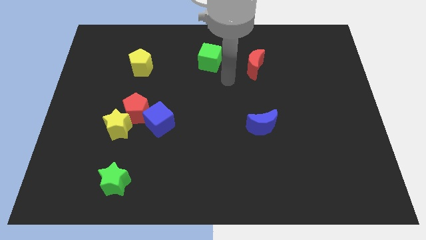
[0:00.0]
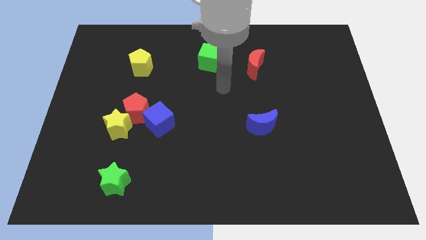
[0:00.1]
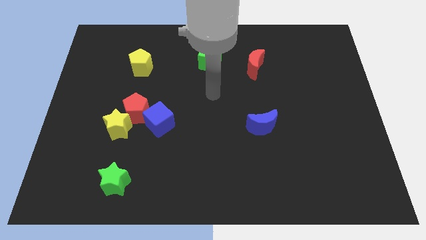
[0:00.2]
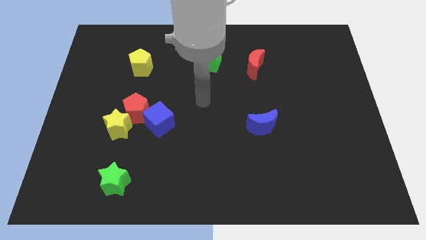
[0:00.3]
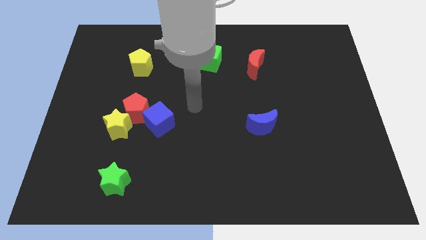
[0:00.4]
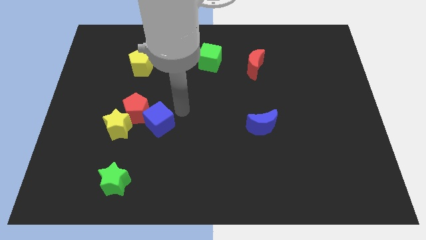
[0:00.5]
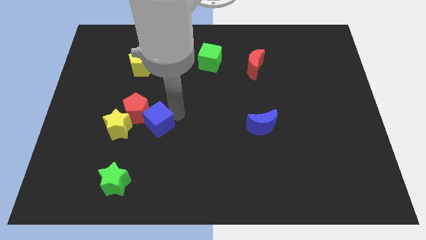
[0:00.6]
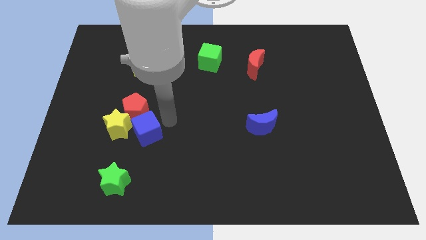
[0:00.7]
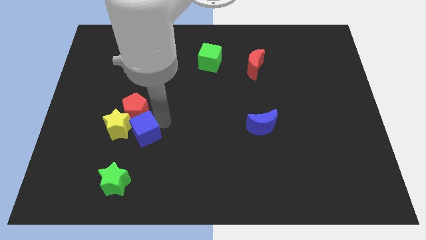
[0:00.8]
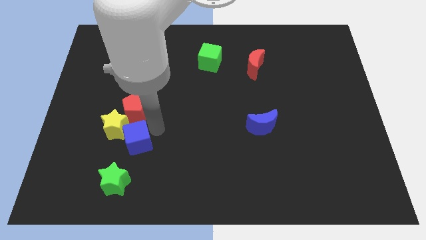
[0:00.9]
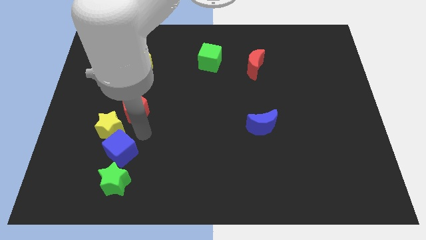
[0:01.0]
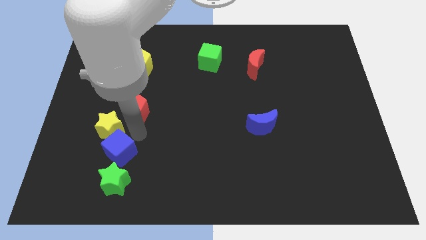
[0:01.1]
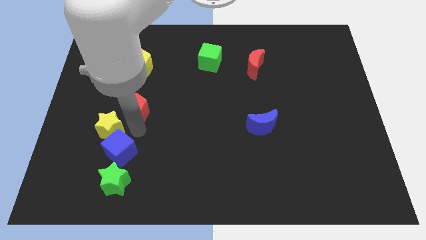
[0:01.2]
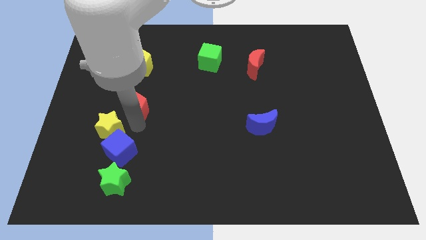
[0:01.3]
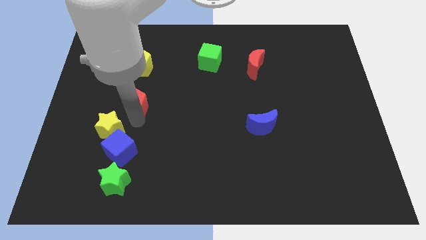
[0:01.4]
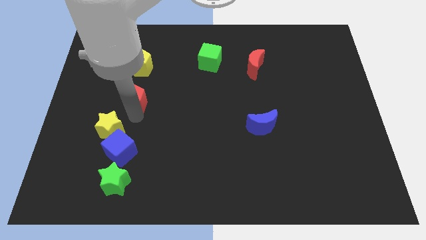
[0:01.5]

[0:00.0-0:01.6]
move the red pentagon away from the yellow star and blue cube

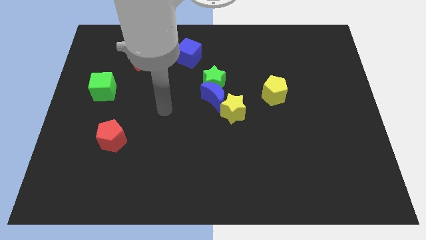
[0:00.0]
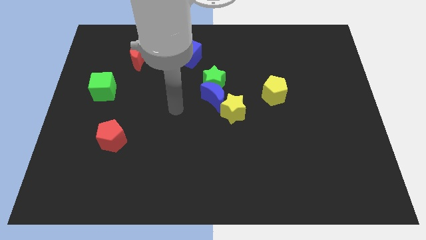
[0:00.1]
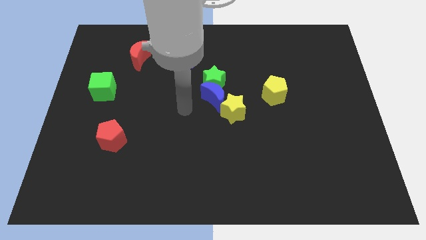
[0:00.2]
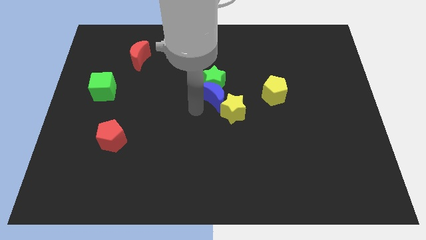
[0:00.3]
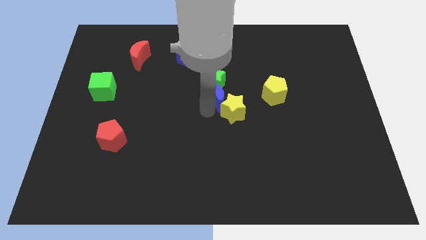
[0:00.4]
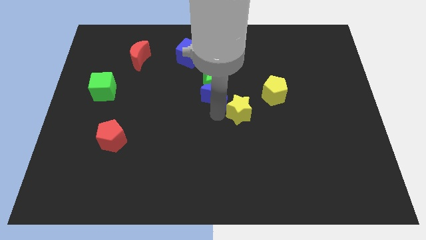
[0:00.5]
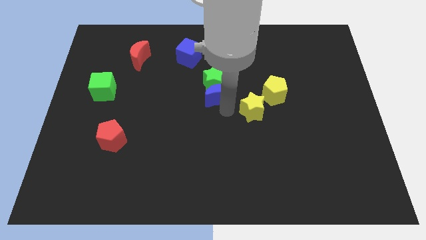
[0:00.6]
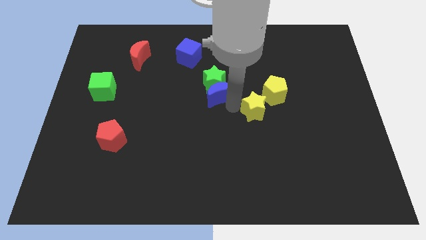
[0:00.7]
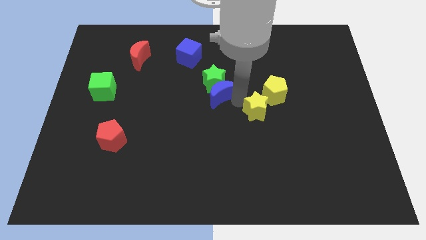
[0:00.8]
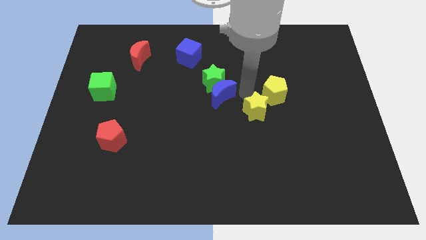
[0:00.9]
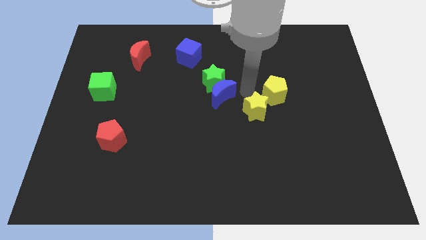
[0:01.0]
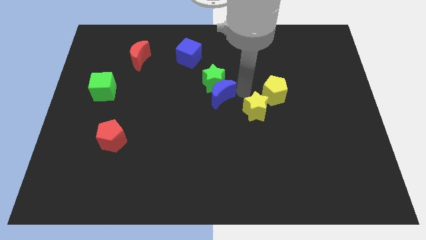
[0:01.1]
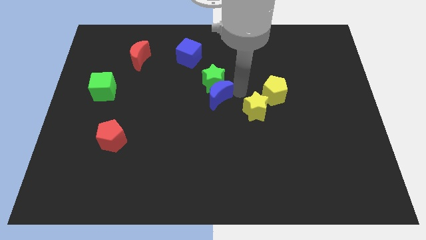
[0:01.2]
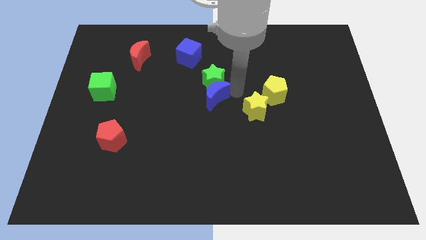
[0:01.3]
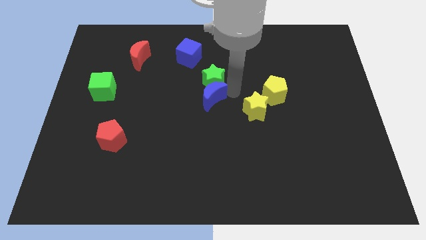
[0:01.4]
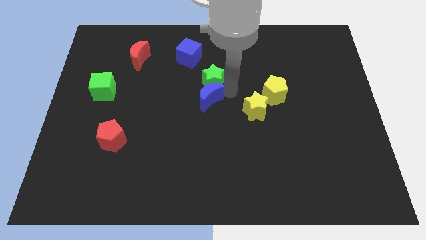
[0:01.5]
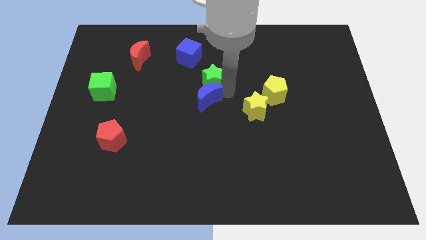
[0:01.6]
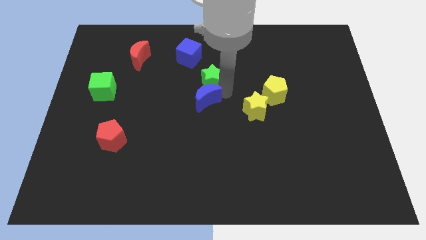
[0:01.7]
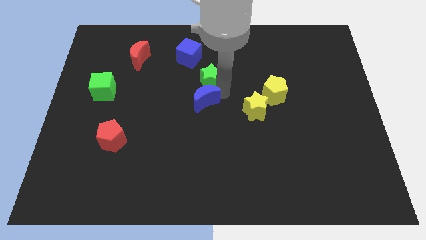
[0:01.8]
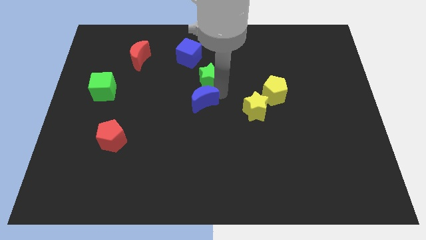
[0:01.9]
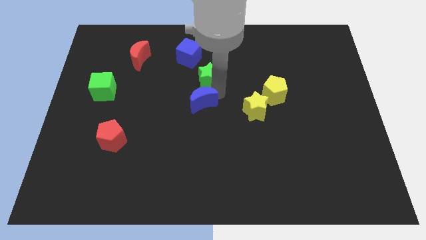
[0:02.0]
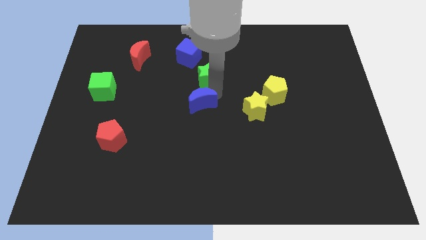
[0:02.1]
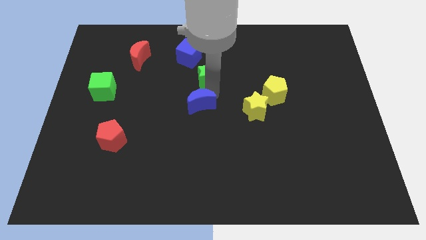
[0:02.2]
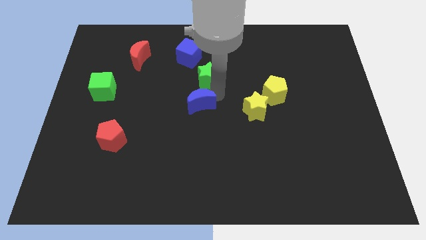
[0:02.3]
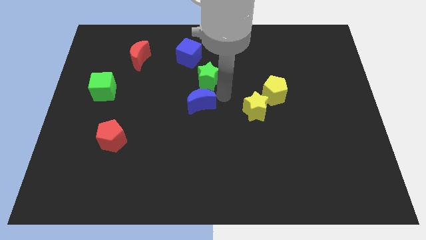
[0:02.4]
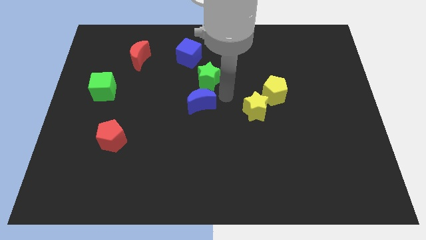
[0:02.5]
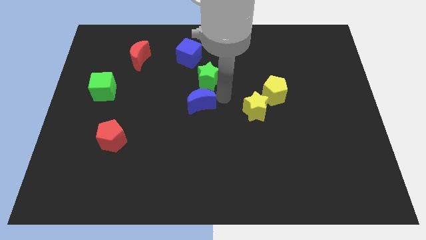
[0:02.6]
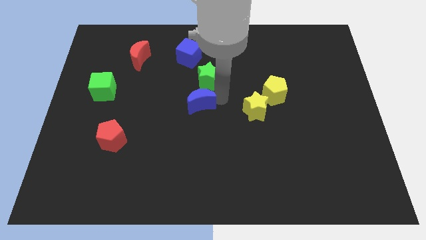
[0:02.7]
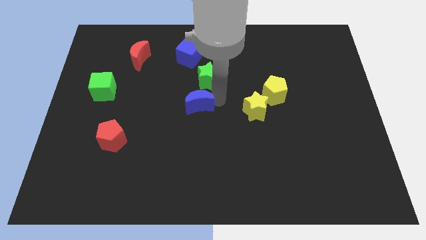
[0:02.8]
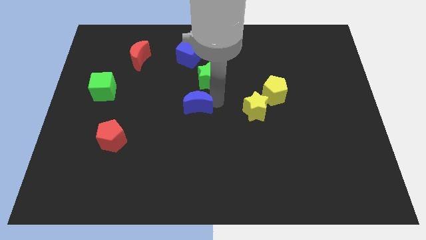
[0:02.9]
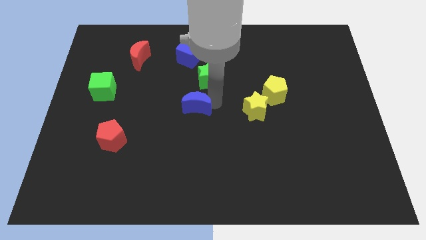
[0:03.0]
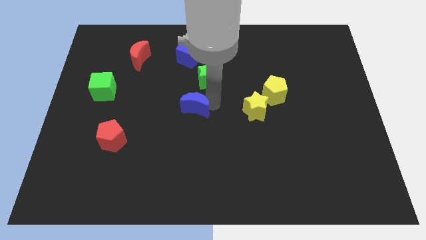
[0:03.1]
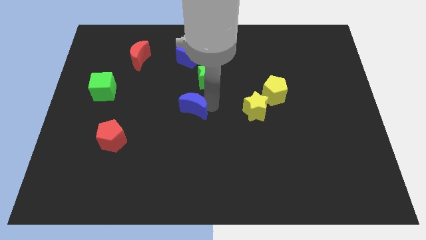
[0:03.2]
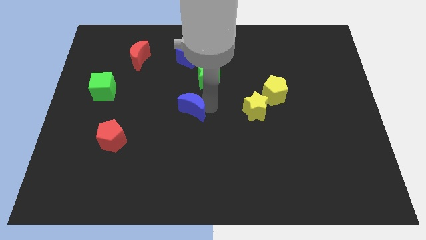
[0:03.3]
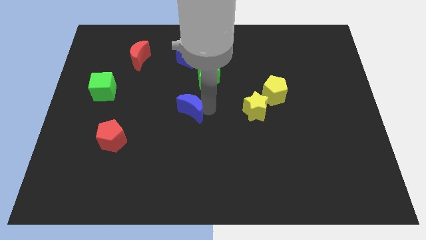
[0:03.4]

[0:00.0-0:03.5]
move the blue moon away from the green star and yellow star

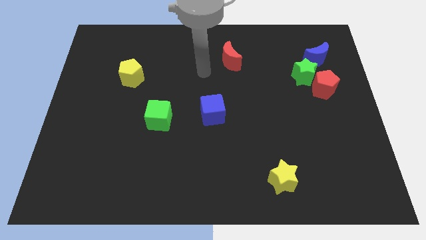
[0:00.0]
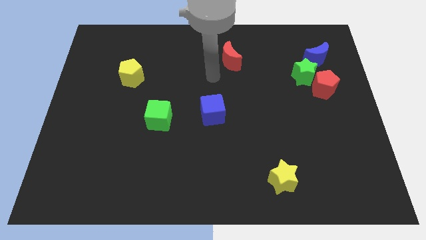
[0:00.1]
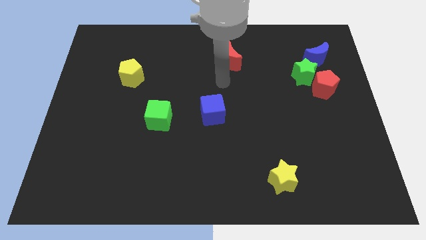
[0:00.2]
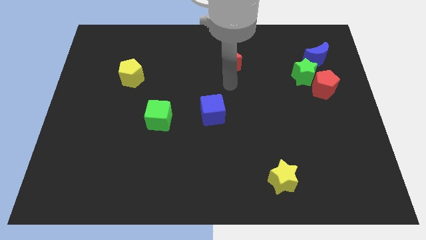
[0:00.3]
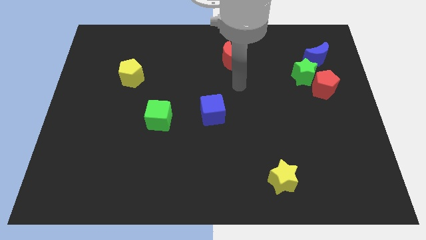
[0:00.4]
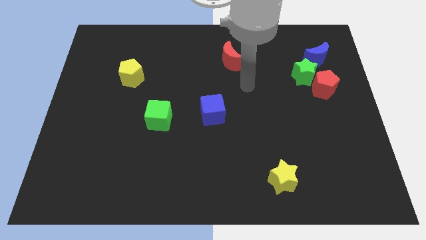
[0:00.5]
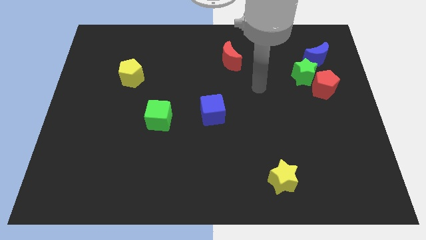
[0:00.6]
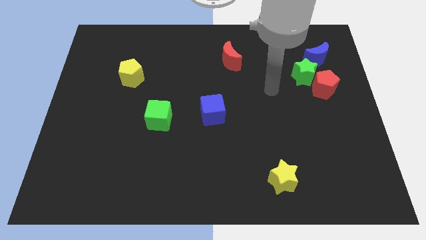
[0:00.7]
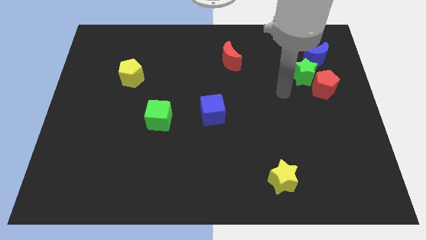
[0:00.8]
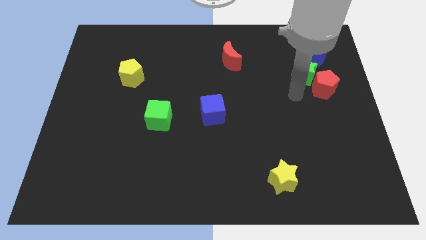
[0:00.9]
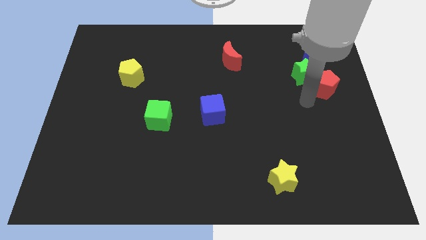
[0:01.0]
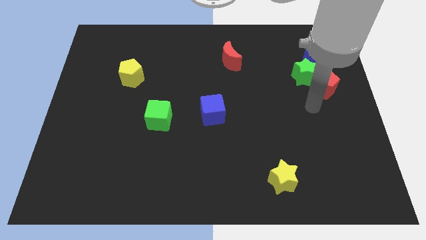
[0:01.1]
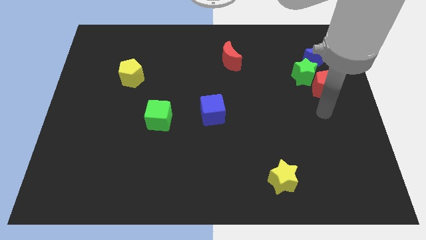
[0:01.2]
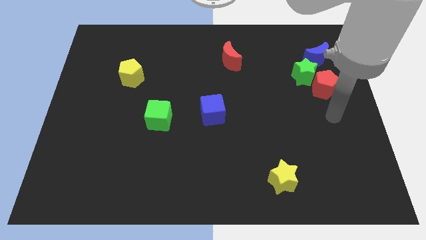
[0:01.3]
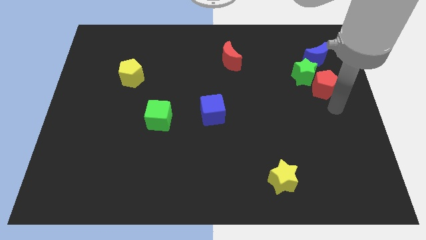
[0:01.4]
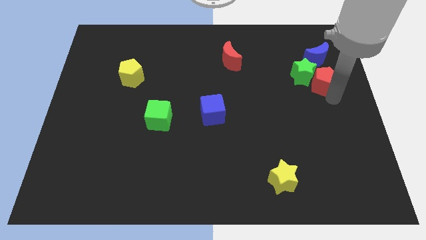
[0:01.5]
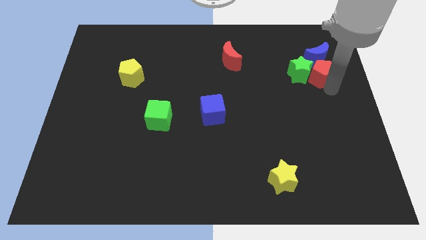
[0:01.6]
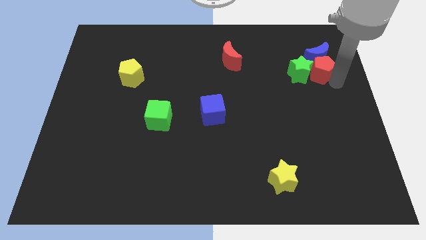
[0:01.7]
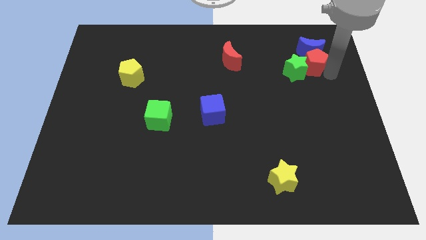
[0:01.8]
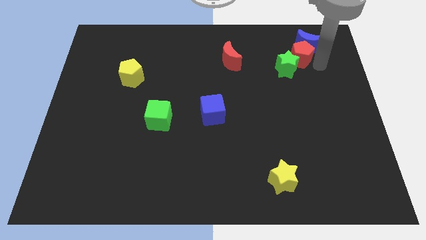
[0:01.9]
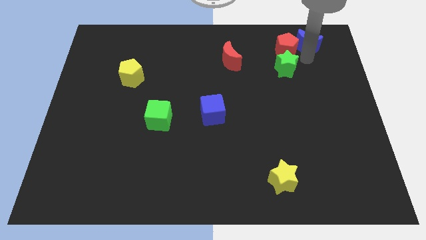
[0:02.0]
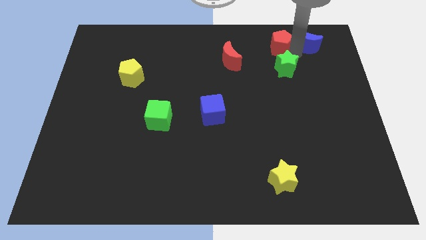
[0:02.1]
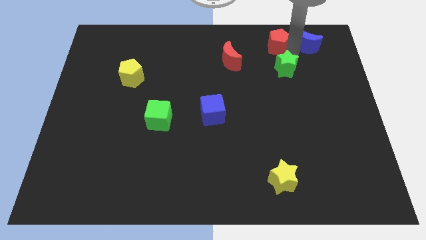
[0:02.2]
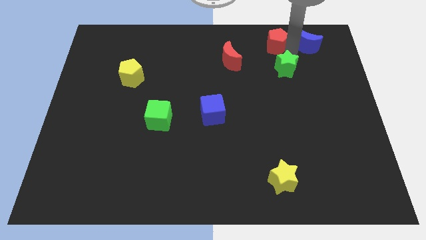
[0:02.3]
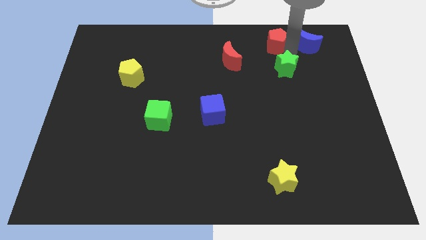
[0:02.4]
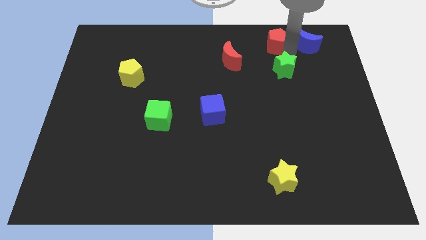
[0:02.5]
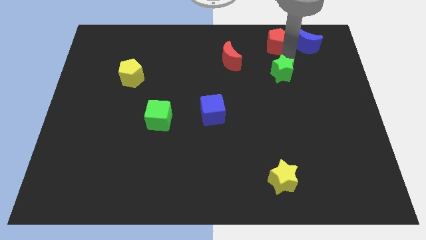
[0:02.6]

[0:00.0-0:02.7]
move the green star away from the red pentagon and blue moon

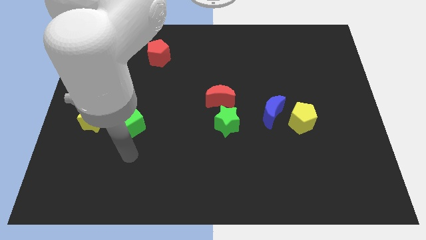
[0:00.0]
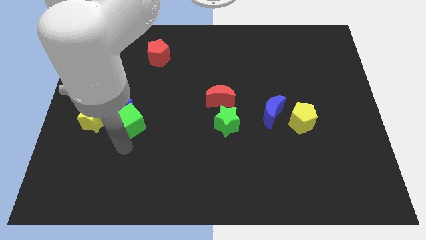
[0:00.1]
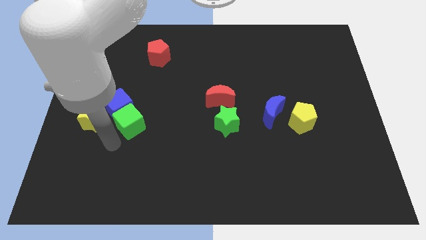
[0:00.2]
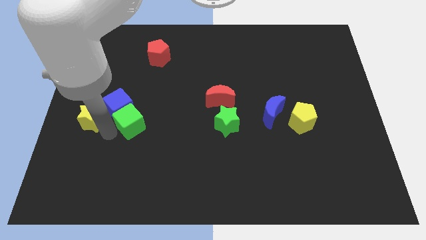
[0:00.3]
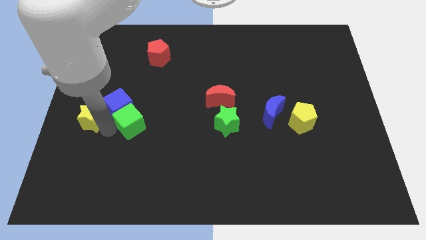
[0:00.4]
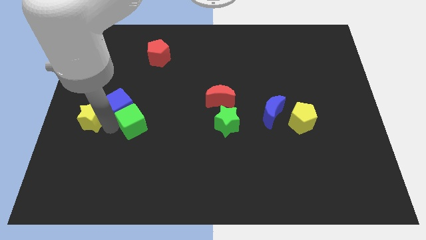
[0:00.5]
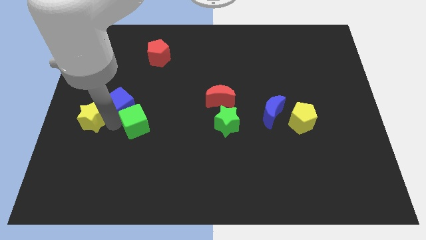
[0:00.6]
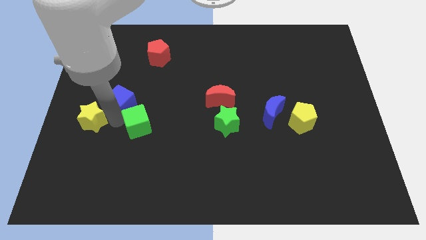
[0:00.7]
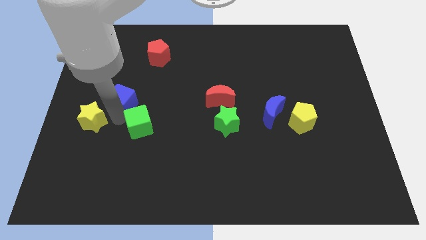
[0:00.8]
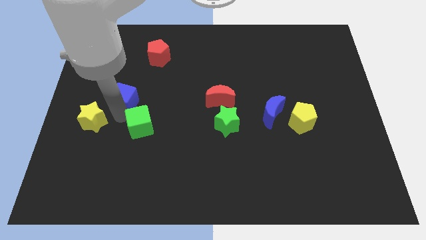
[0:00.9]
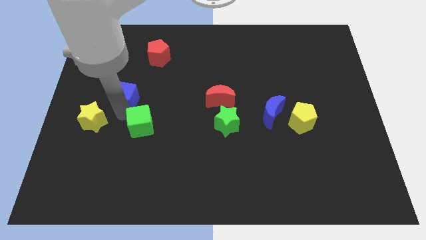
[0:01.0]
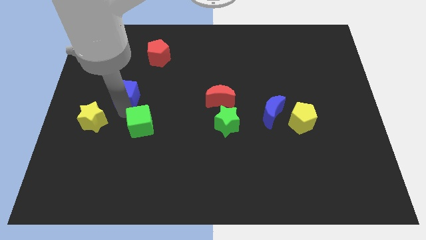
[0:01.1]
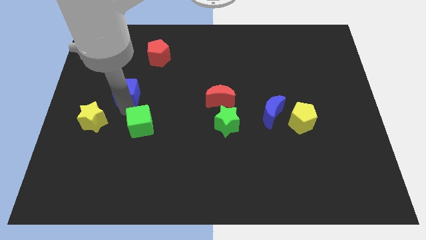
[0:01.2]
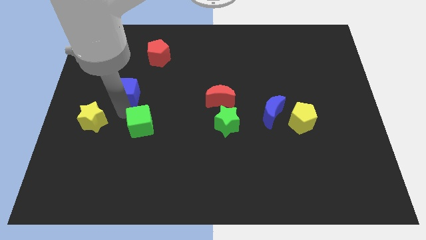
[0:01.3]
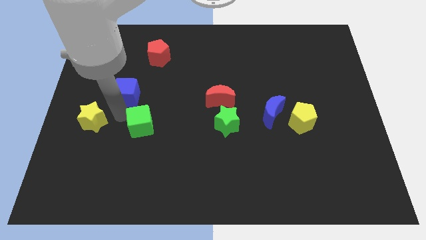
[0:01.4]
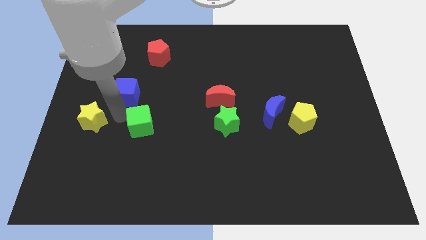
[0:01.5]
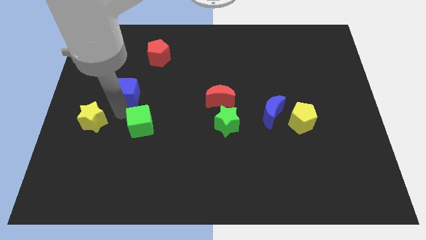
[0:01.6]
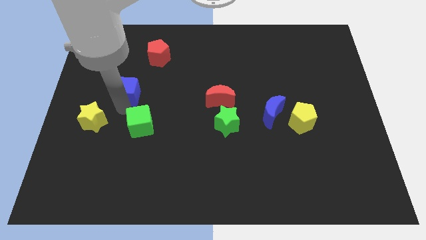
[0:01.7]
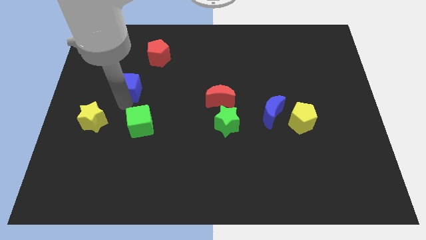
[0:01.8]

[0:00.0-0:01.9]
separate the blue cube from the green cube and yellow star
